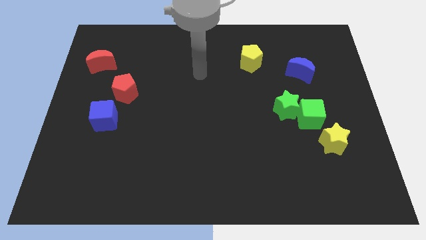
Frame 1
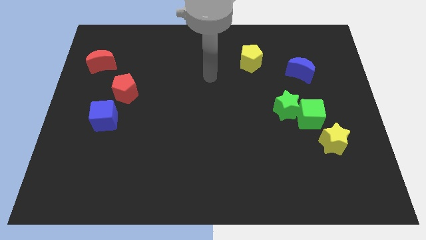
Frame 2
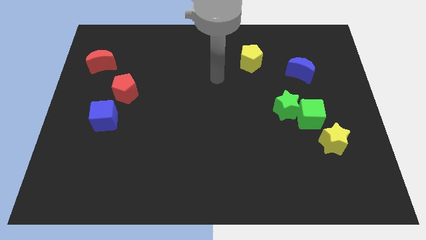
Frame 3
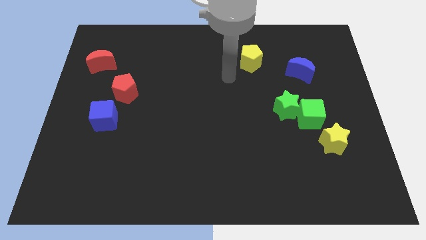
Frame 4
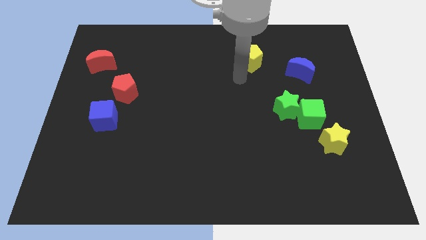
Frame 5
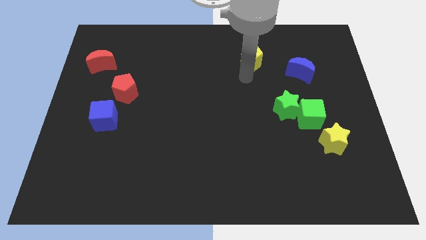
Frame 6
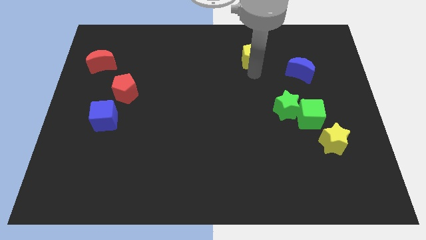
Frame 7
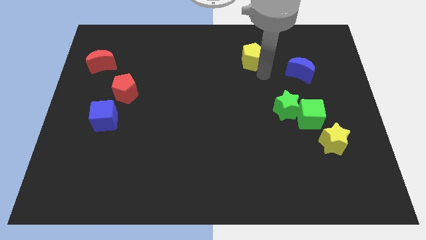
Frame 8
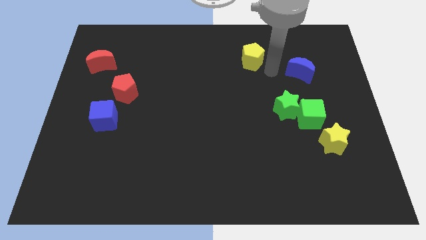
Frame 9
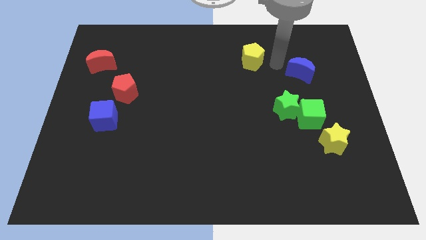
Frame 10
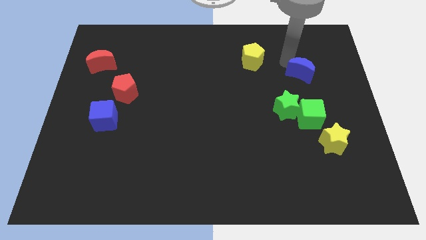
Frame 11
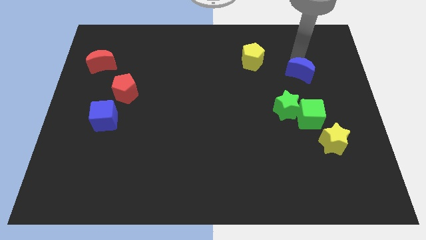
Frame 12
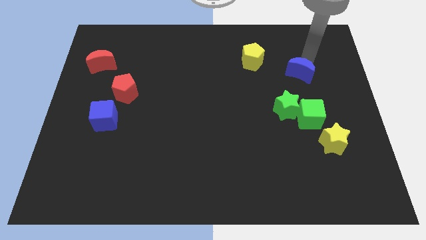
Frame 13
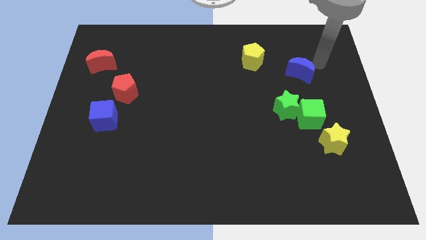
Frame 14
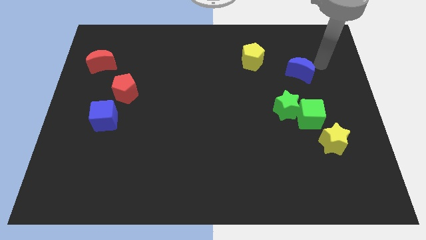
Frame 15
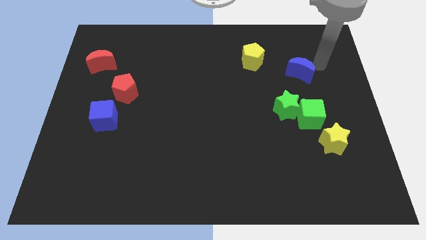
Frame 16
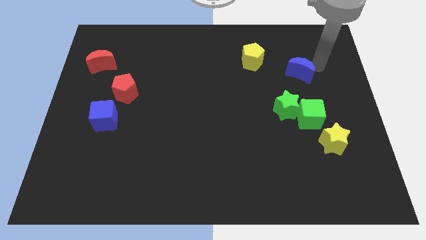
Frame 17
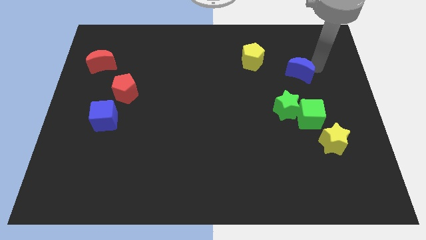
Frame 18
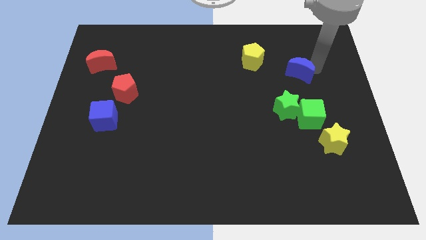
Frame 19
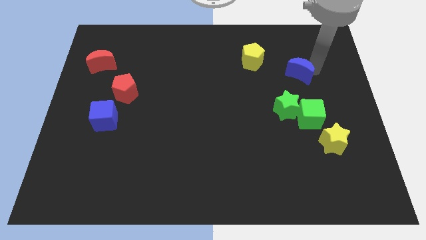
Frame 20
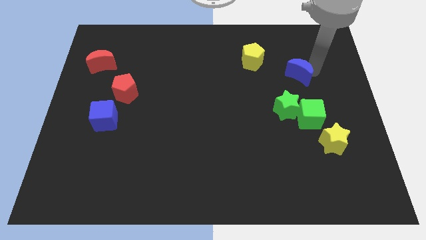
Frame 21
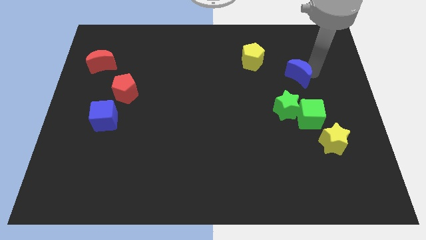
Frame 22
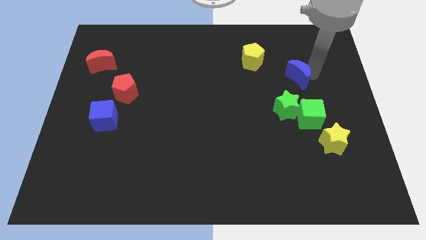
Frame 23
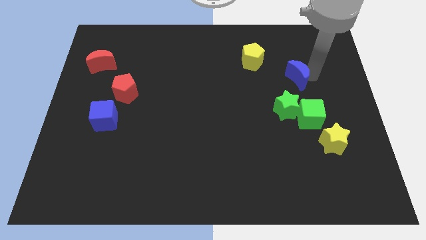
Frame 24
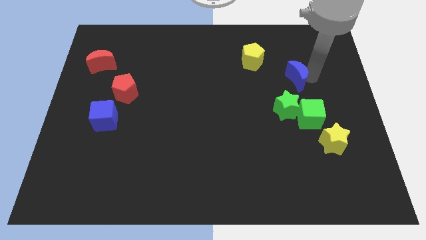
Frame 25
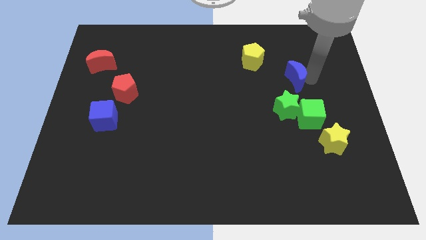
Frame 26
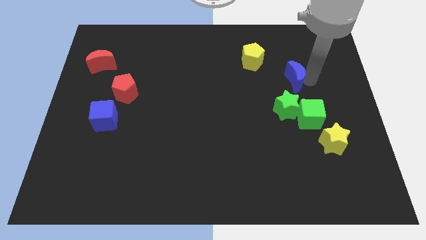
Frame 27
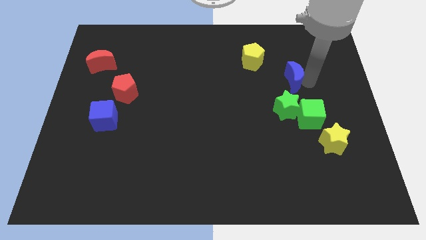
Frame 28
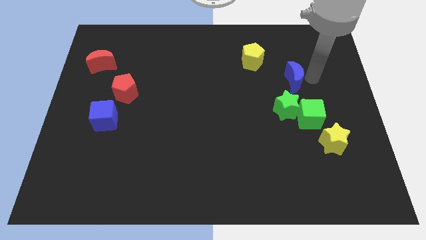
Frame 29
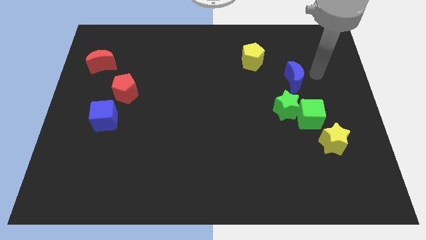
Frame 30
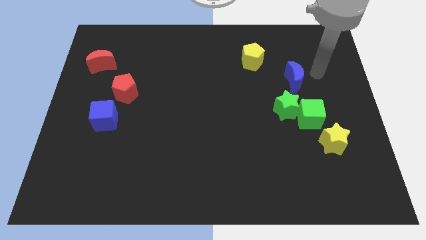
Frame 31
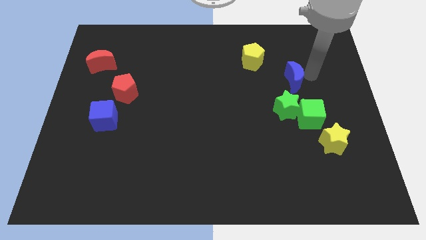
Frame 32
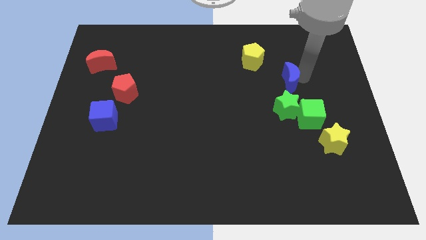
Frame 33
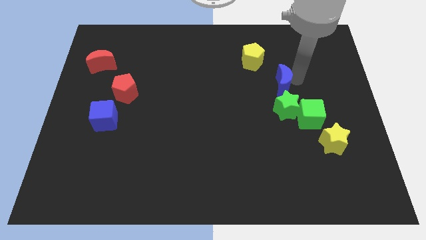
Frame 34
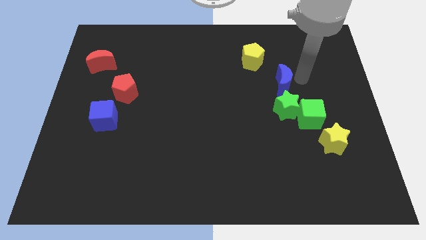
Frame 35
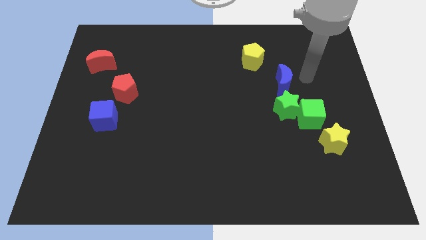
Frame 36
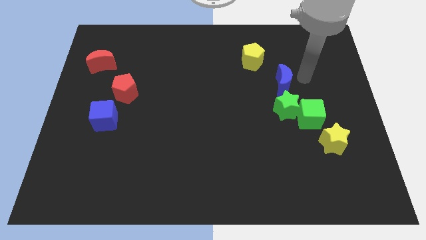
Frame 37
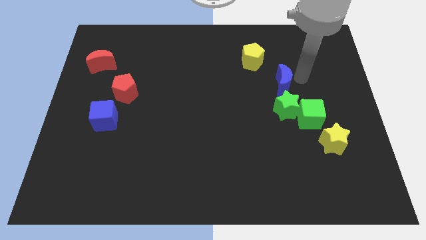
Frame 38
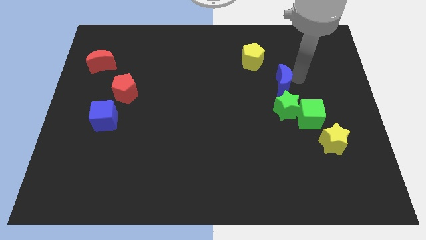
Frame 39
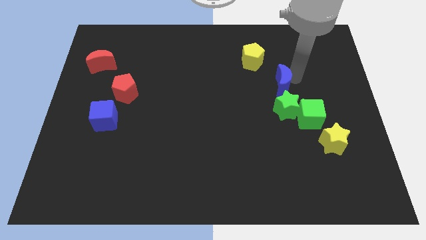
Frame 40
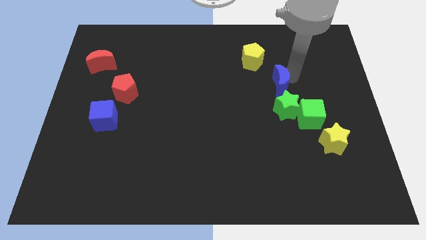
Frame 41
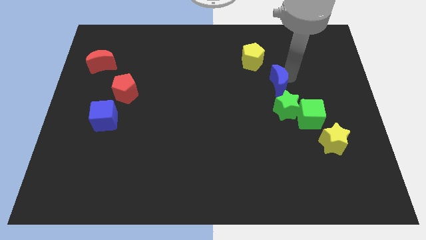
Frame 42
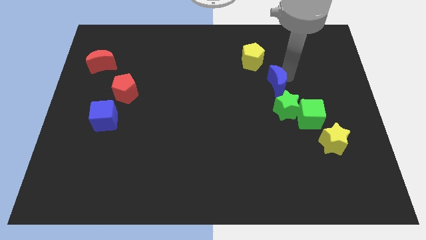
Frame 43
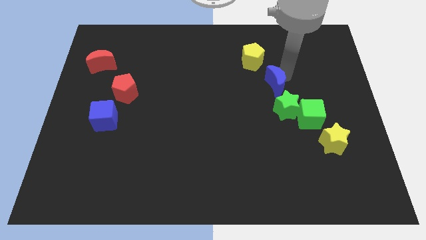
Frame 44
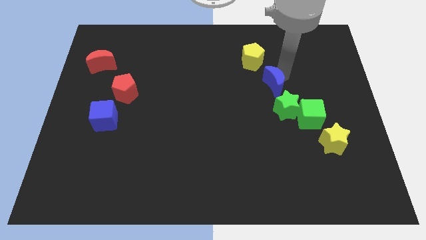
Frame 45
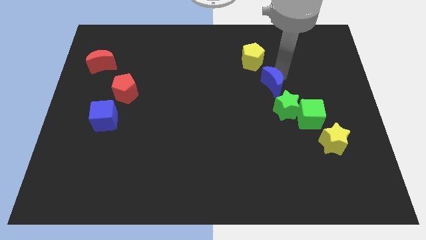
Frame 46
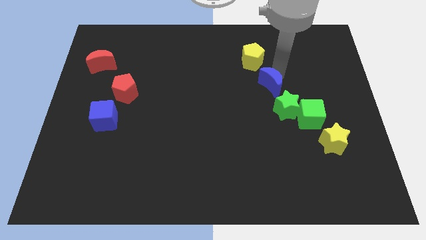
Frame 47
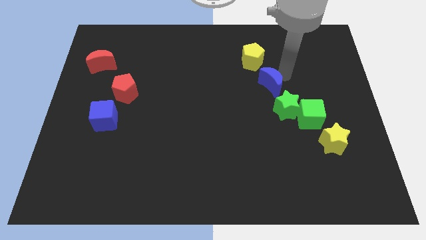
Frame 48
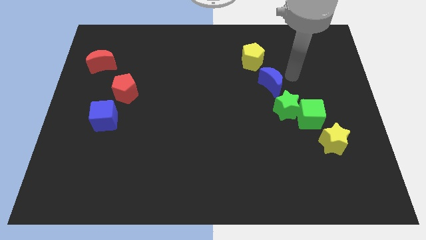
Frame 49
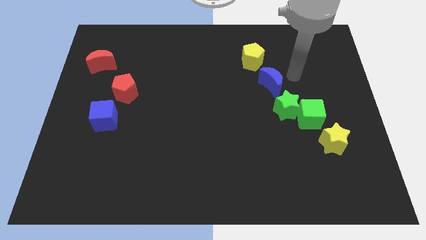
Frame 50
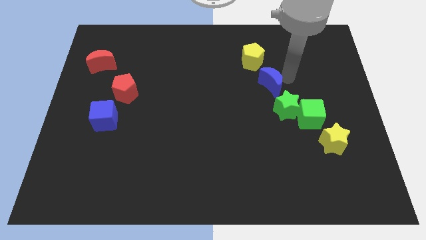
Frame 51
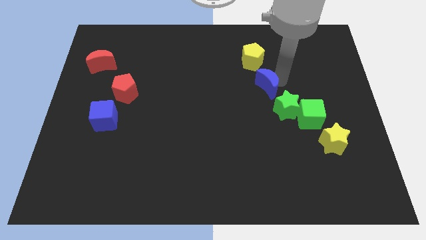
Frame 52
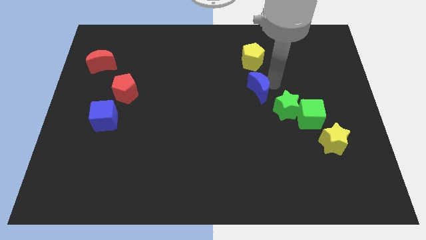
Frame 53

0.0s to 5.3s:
push the blue moon to the middle of the board

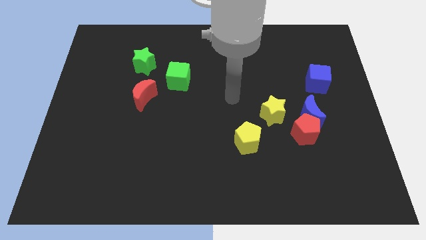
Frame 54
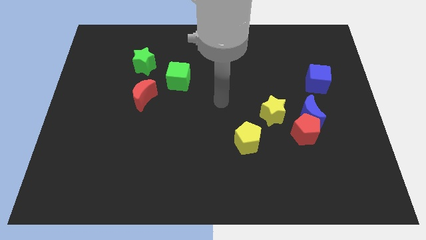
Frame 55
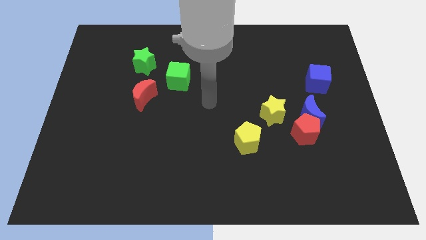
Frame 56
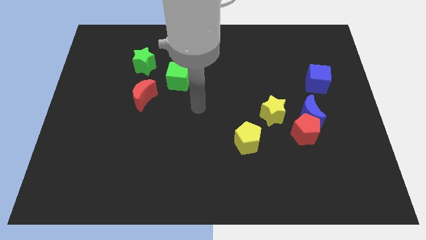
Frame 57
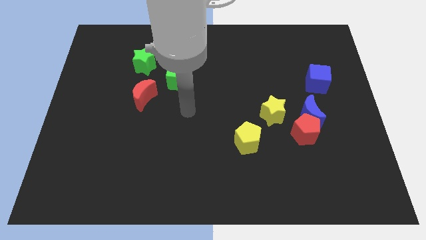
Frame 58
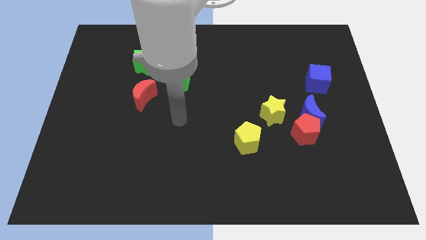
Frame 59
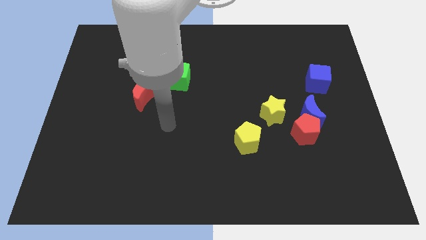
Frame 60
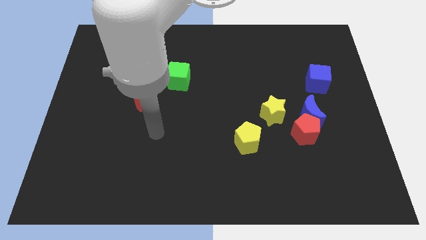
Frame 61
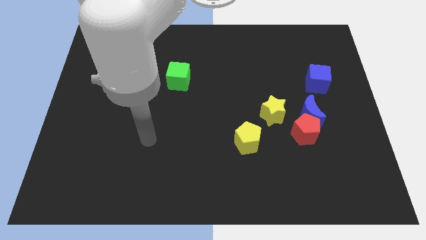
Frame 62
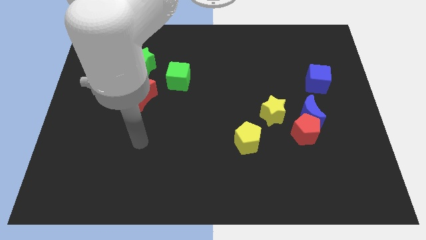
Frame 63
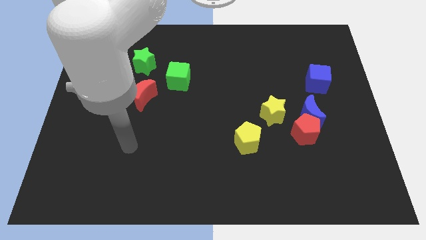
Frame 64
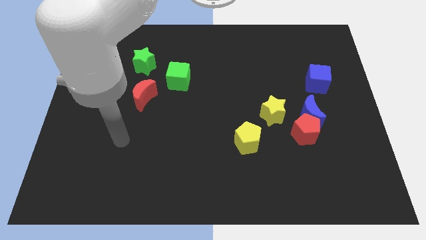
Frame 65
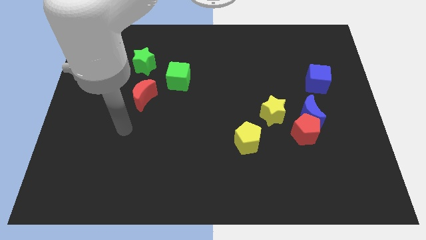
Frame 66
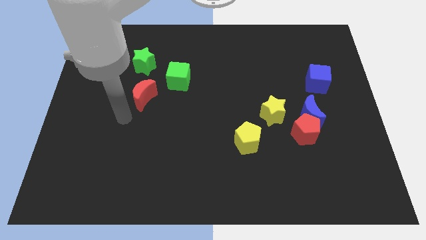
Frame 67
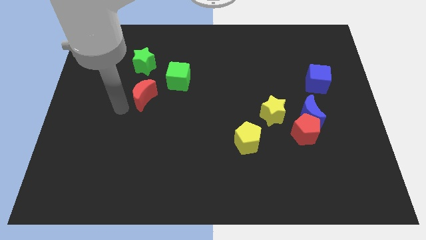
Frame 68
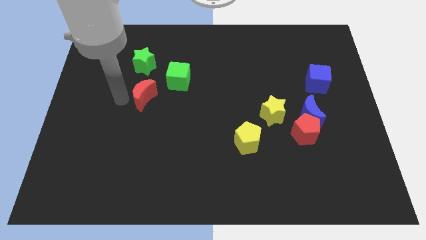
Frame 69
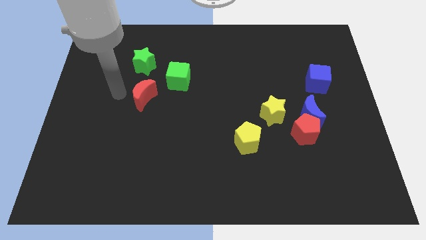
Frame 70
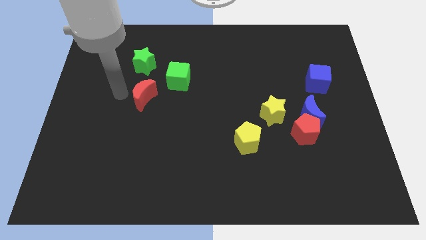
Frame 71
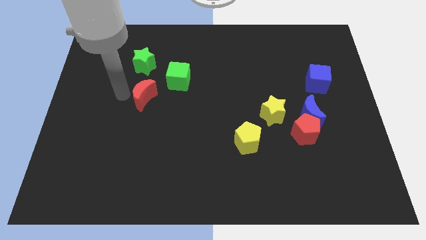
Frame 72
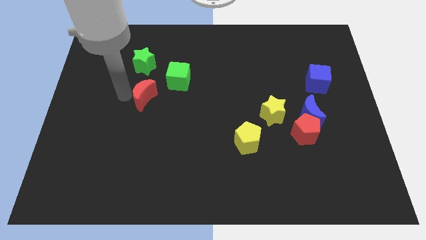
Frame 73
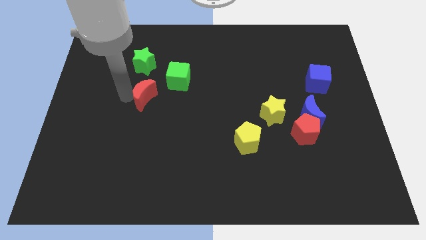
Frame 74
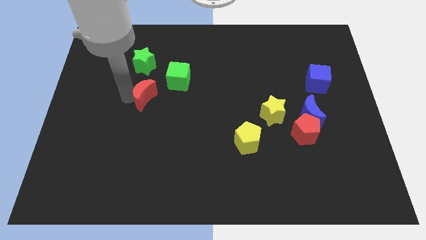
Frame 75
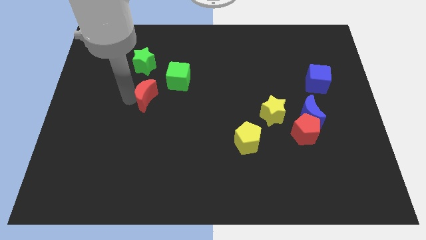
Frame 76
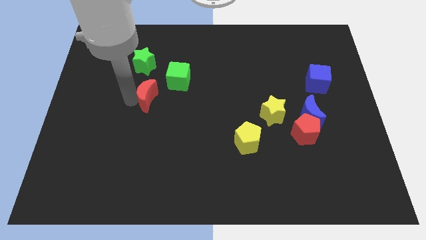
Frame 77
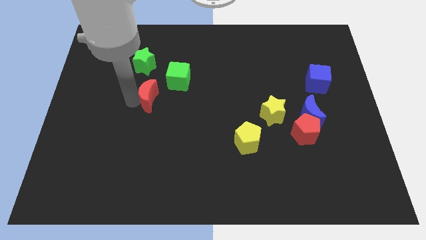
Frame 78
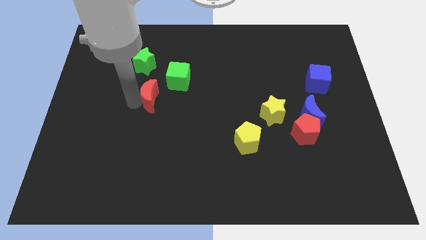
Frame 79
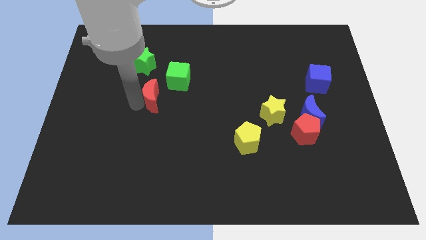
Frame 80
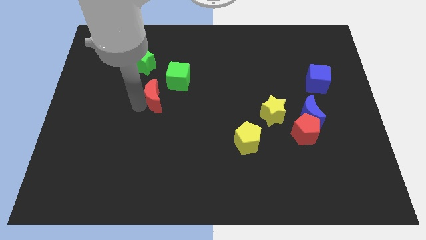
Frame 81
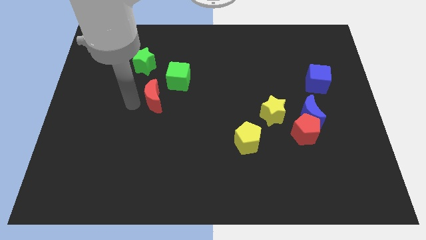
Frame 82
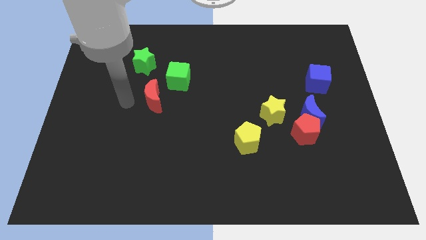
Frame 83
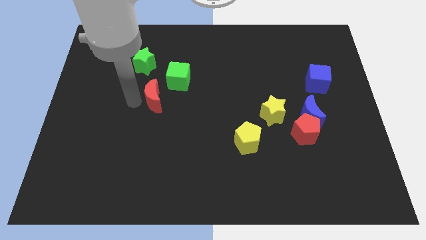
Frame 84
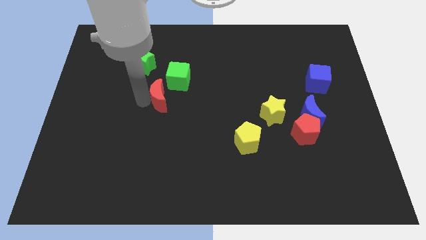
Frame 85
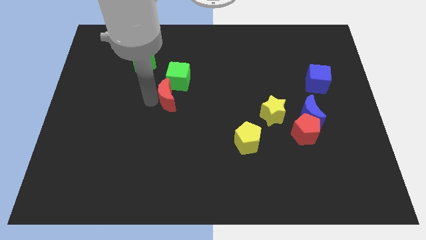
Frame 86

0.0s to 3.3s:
put the red moon to the center of the board
